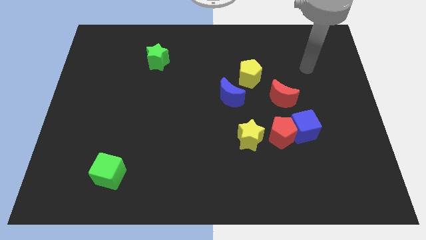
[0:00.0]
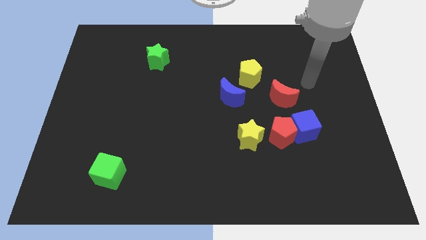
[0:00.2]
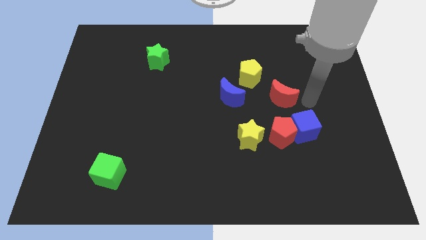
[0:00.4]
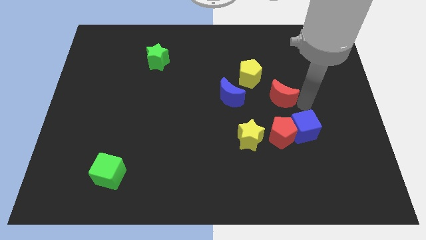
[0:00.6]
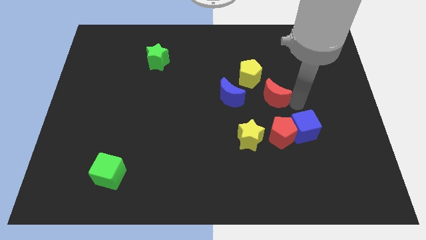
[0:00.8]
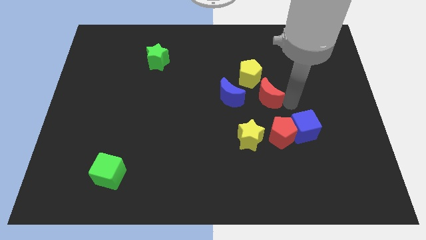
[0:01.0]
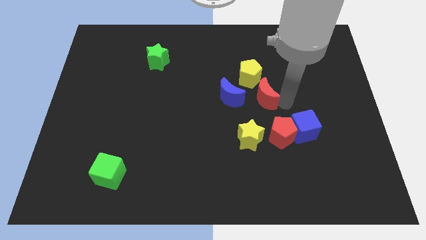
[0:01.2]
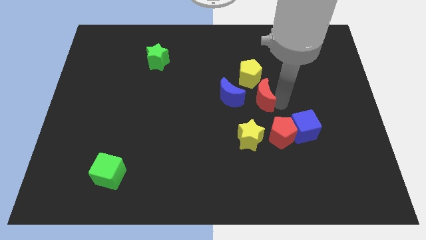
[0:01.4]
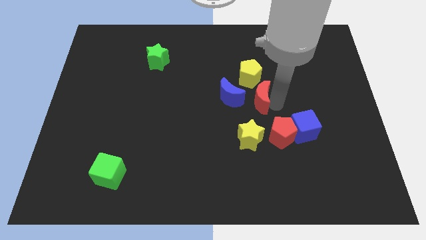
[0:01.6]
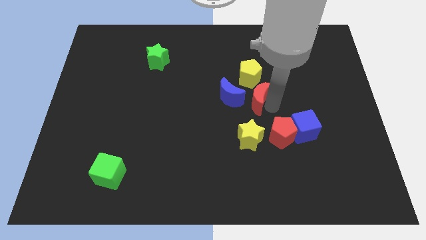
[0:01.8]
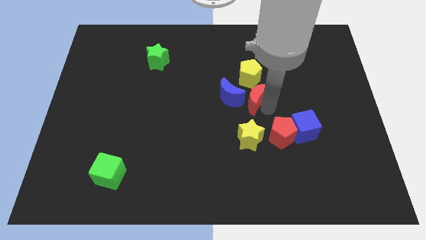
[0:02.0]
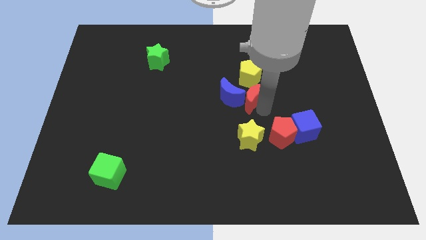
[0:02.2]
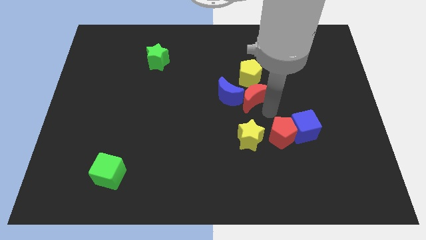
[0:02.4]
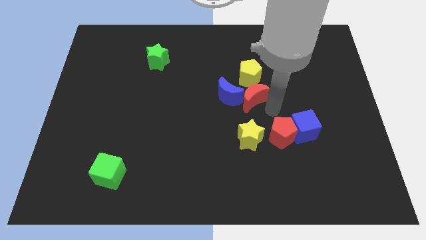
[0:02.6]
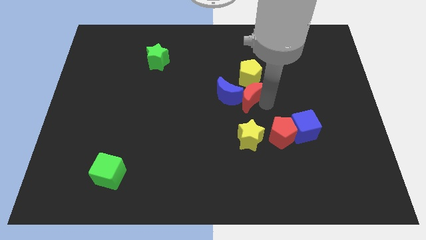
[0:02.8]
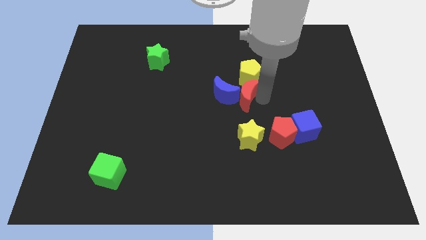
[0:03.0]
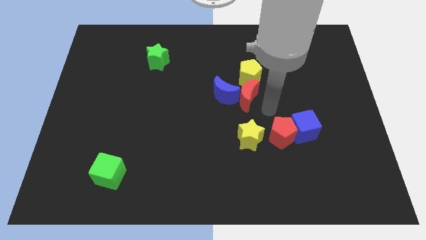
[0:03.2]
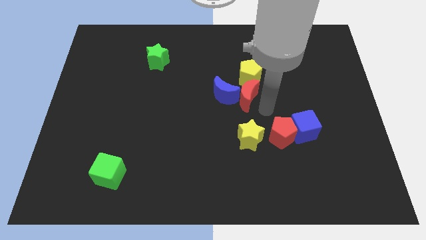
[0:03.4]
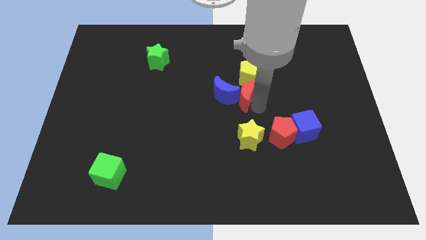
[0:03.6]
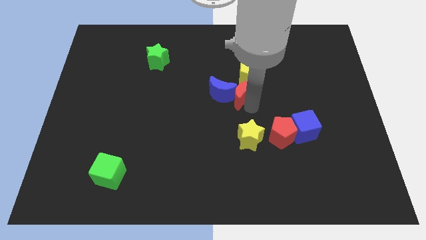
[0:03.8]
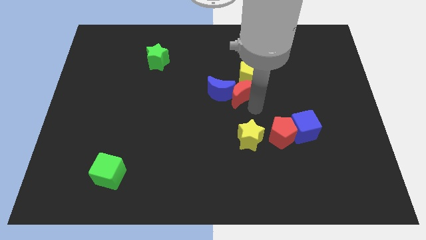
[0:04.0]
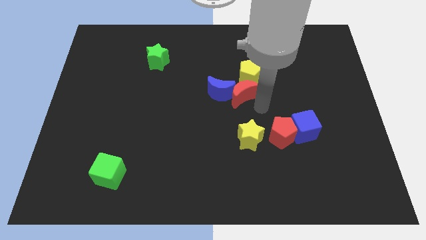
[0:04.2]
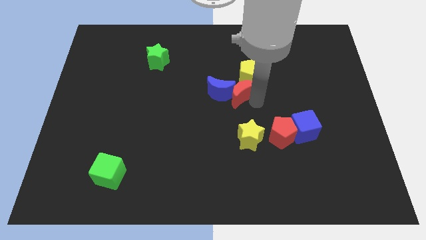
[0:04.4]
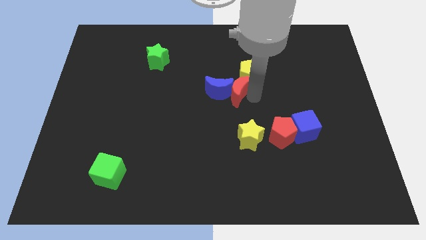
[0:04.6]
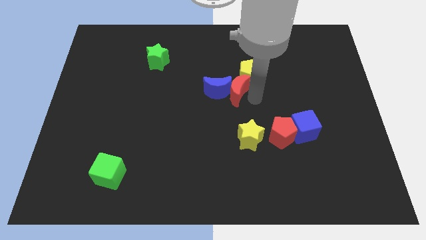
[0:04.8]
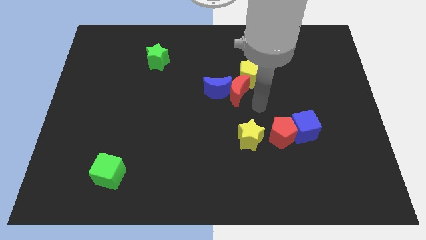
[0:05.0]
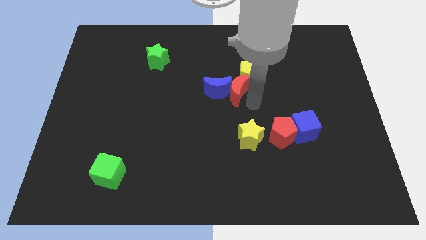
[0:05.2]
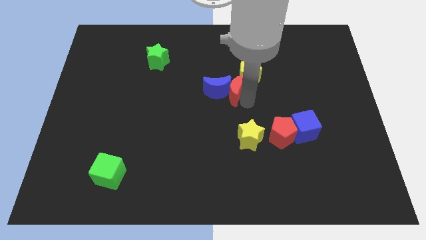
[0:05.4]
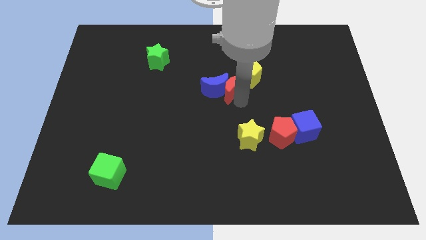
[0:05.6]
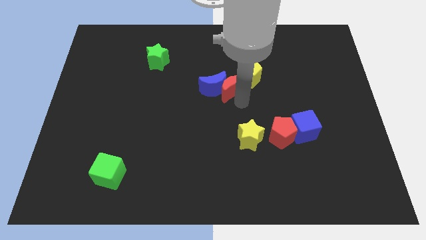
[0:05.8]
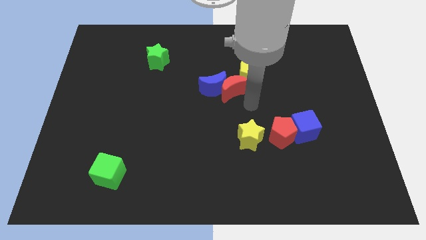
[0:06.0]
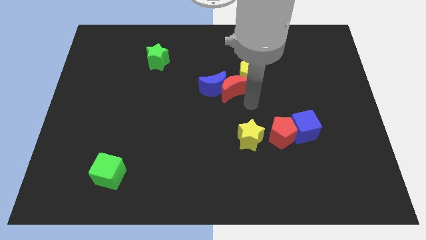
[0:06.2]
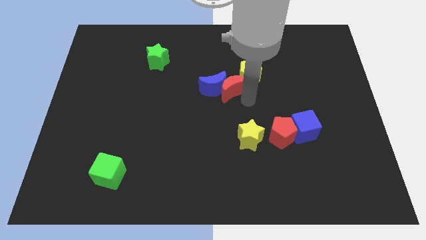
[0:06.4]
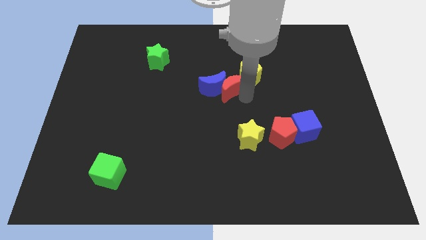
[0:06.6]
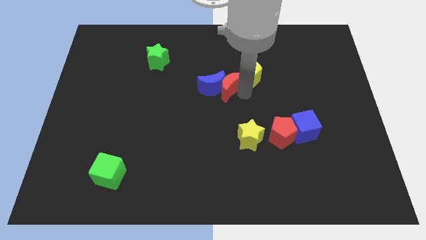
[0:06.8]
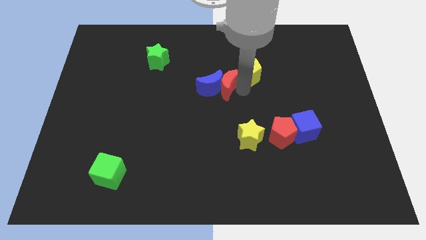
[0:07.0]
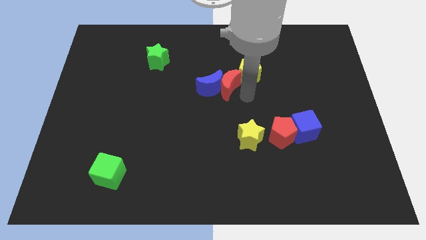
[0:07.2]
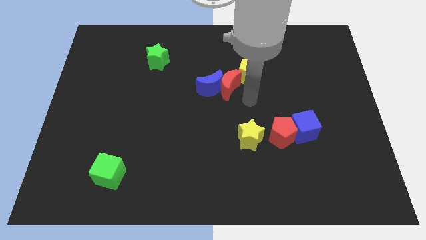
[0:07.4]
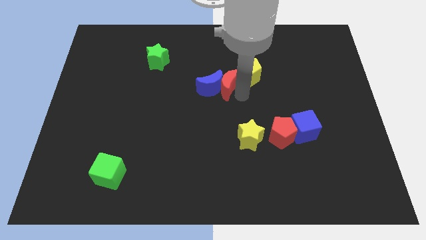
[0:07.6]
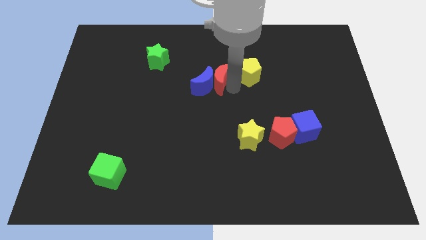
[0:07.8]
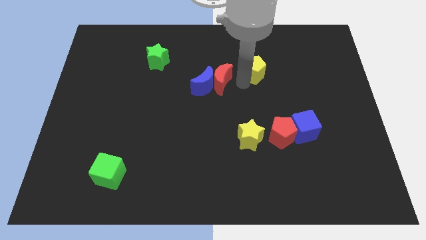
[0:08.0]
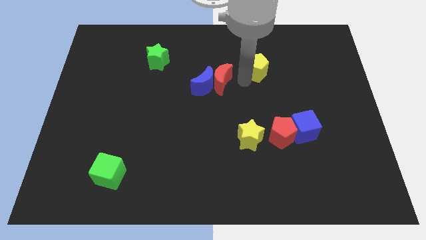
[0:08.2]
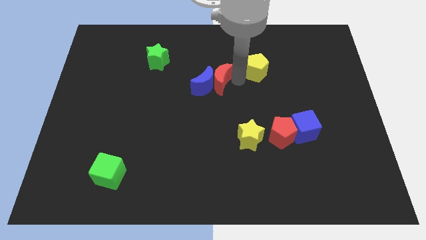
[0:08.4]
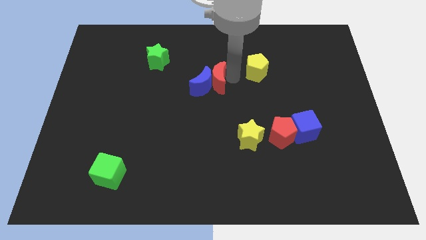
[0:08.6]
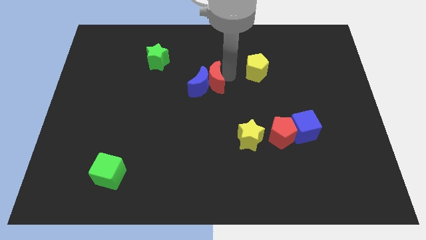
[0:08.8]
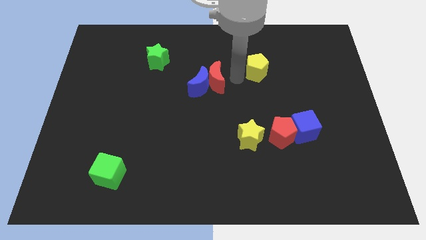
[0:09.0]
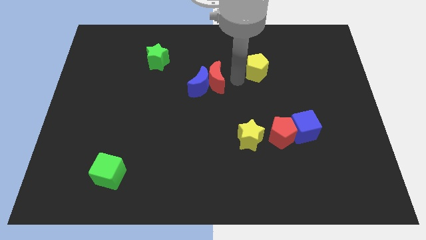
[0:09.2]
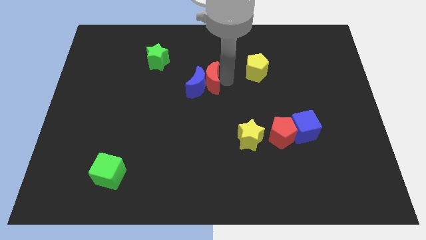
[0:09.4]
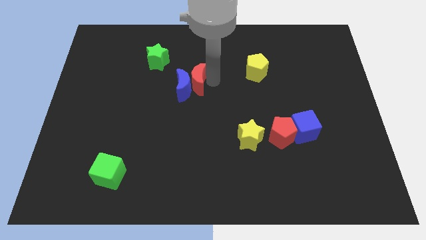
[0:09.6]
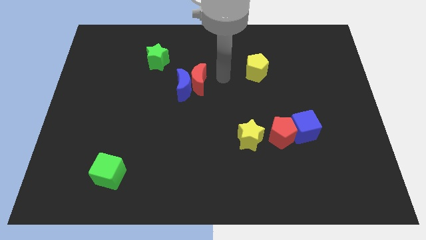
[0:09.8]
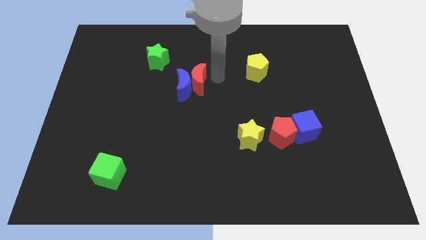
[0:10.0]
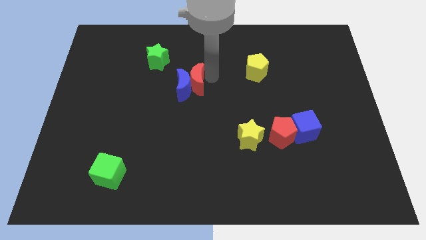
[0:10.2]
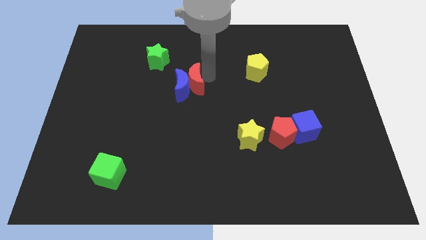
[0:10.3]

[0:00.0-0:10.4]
move the red moon to the left

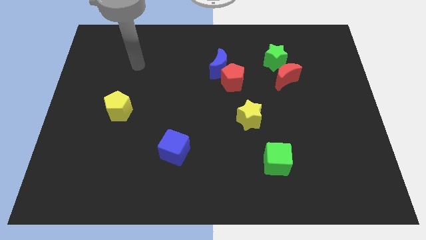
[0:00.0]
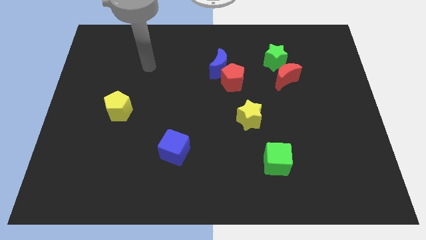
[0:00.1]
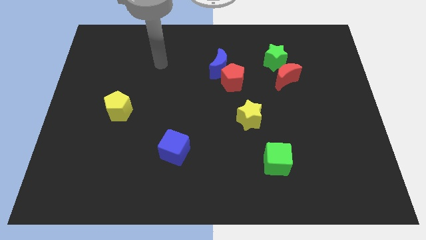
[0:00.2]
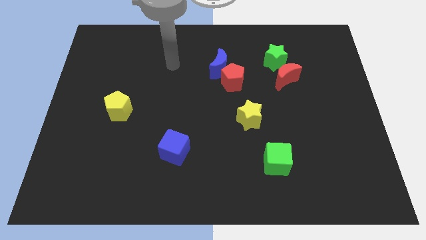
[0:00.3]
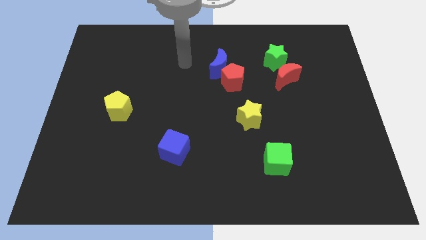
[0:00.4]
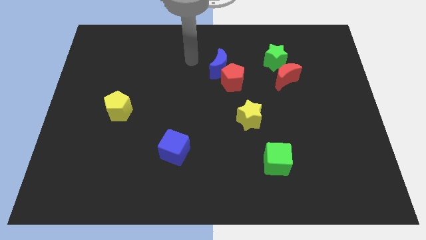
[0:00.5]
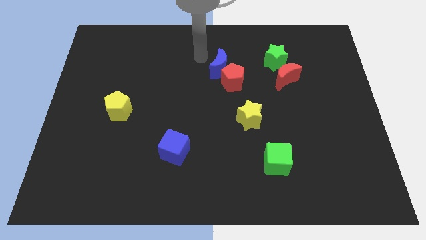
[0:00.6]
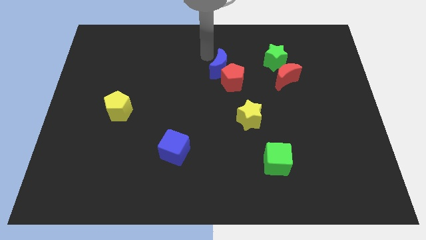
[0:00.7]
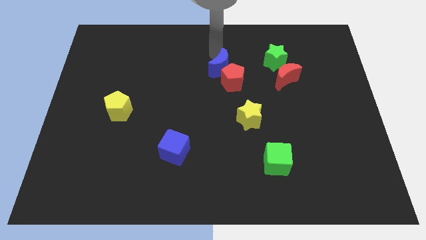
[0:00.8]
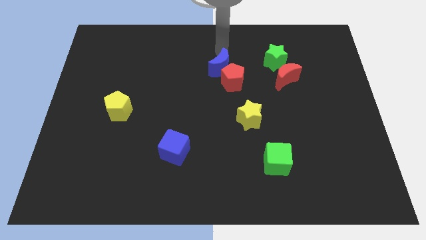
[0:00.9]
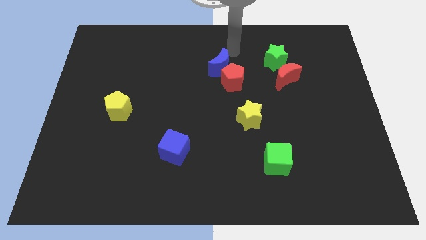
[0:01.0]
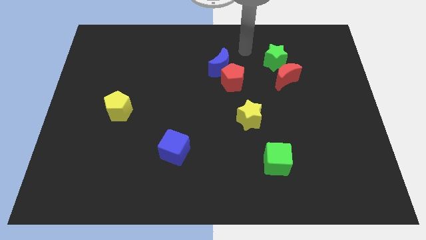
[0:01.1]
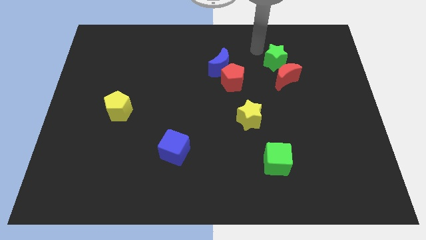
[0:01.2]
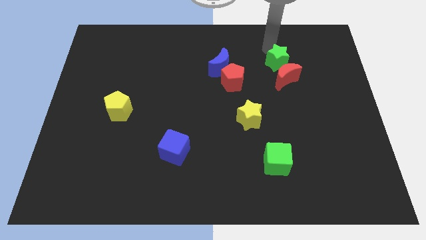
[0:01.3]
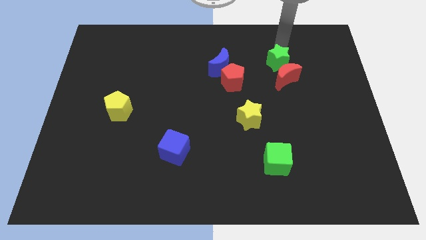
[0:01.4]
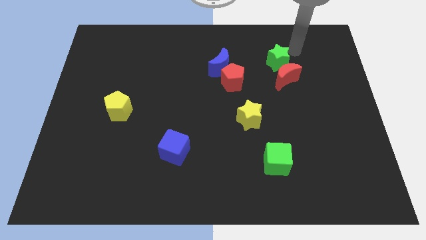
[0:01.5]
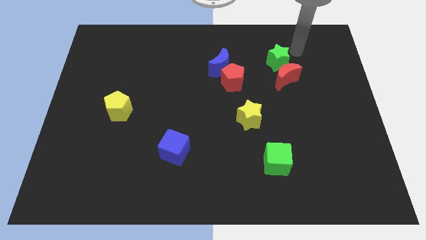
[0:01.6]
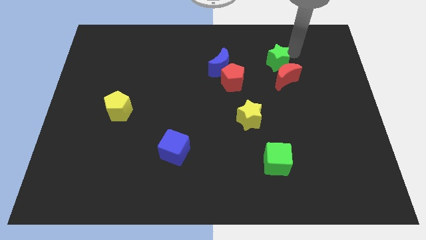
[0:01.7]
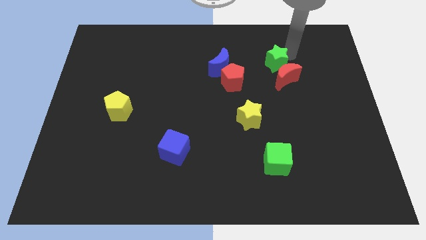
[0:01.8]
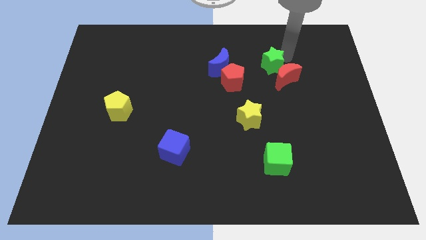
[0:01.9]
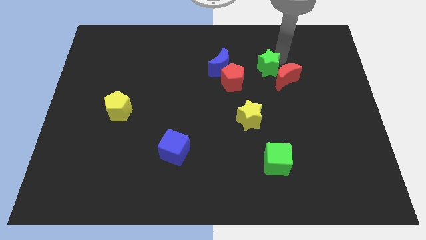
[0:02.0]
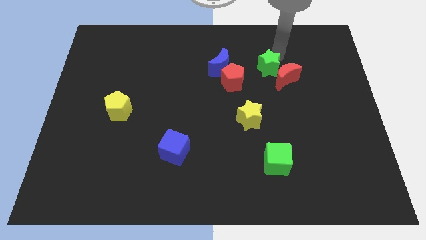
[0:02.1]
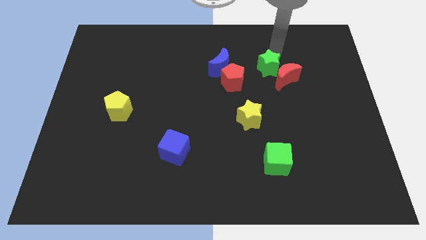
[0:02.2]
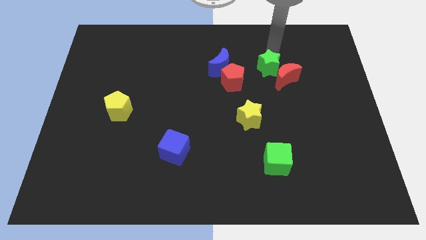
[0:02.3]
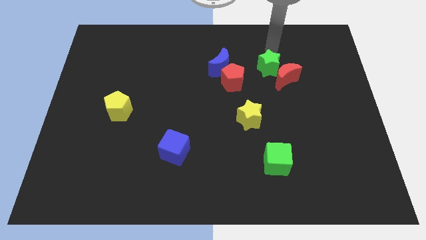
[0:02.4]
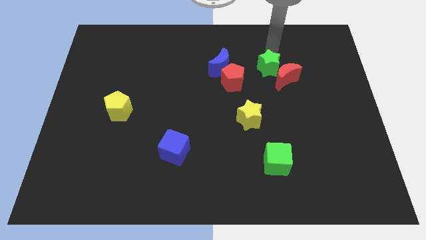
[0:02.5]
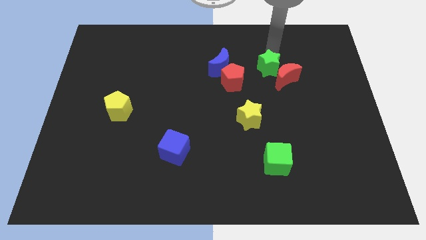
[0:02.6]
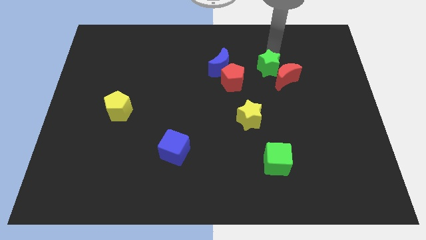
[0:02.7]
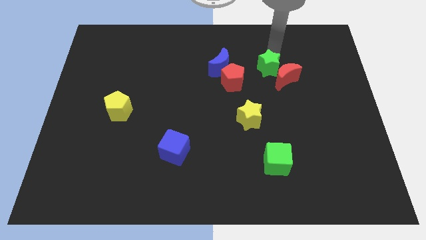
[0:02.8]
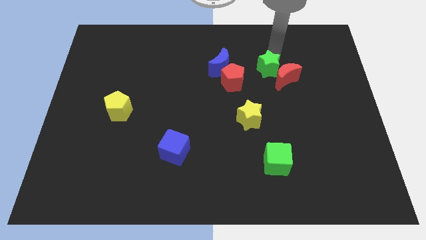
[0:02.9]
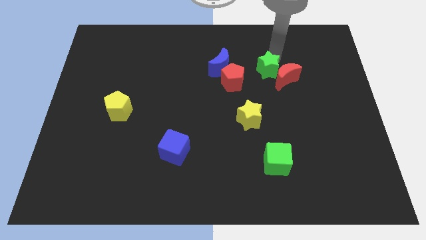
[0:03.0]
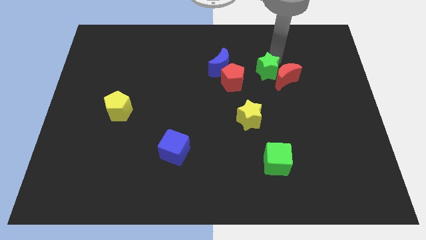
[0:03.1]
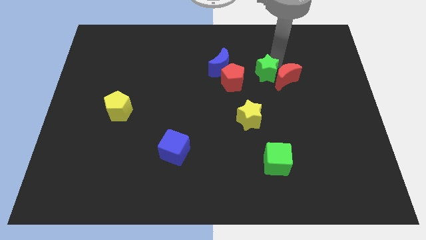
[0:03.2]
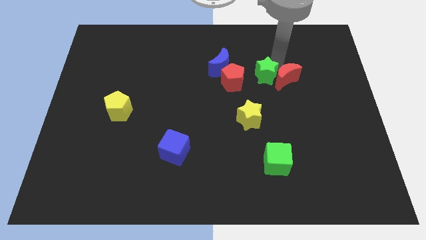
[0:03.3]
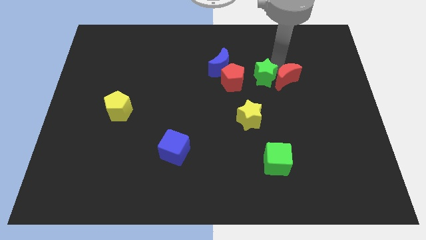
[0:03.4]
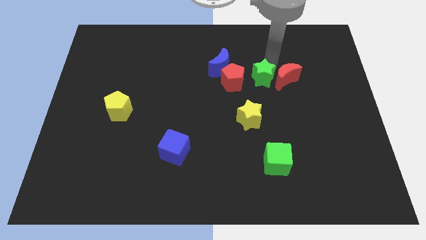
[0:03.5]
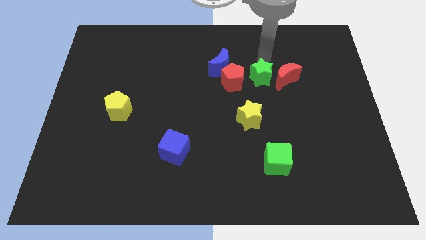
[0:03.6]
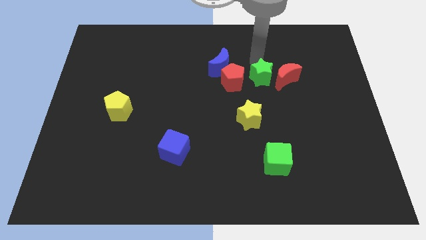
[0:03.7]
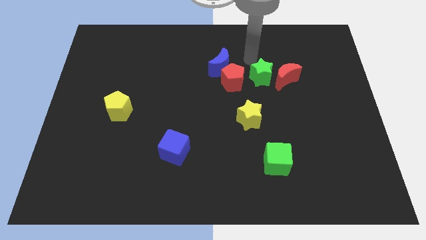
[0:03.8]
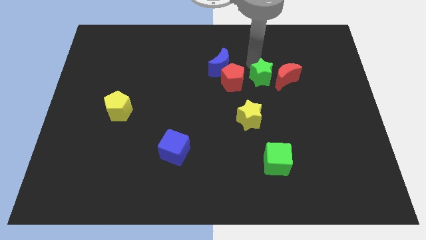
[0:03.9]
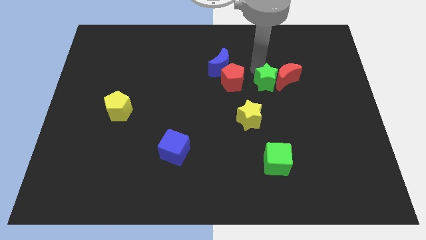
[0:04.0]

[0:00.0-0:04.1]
move the green star a little bit downwards
